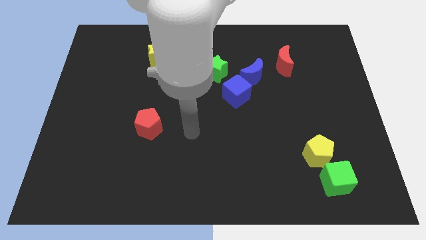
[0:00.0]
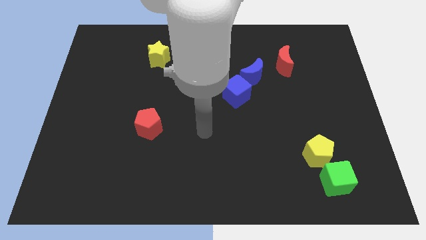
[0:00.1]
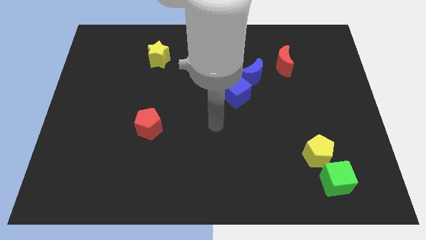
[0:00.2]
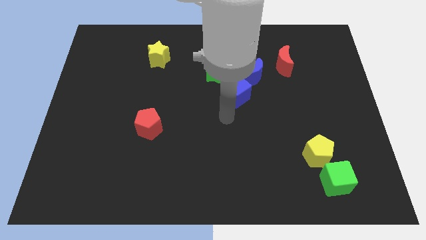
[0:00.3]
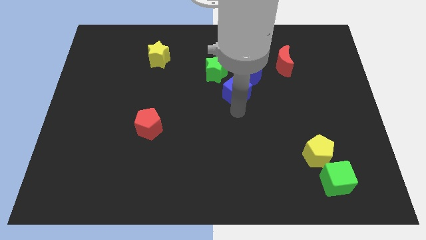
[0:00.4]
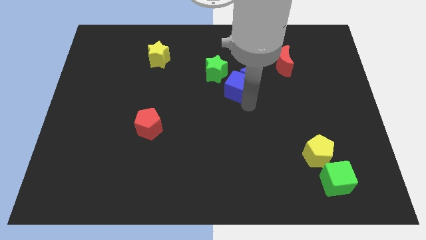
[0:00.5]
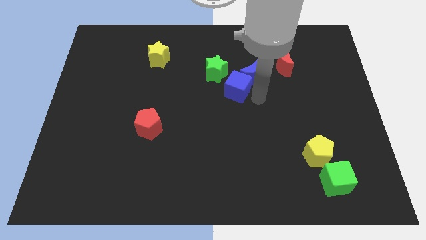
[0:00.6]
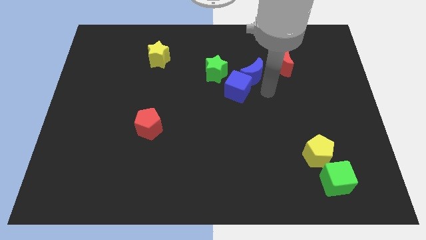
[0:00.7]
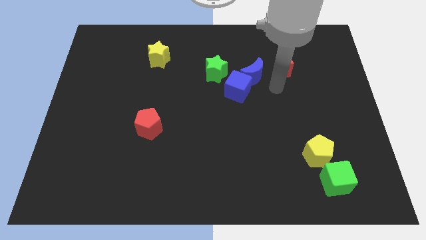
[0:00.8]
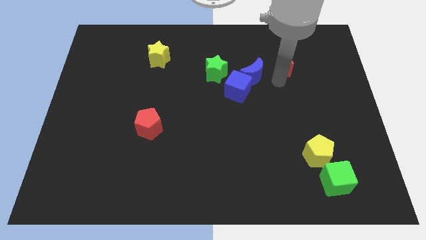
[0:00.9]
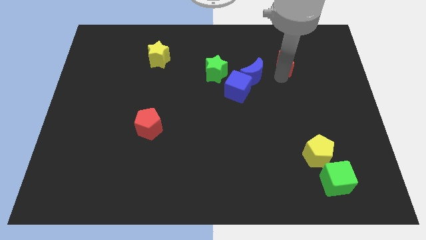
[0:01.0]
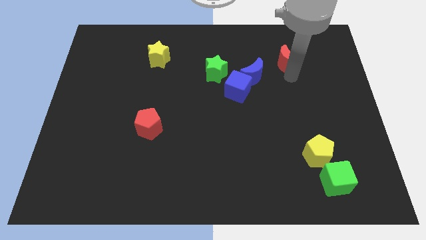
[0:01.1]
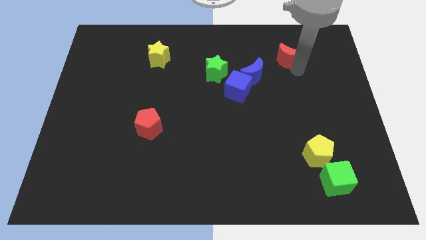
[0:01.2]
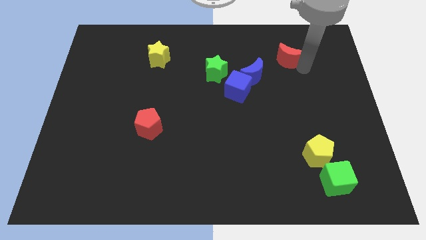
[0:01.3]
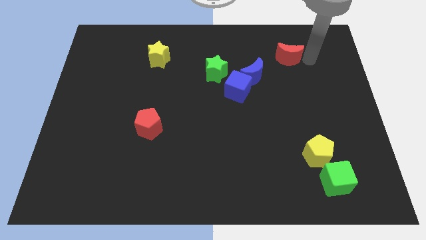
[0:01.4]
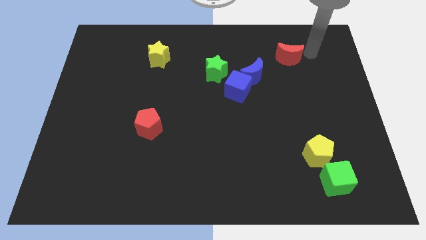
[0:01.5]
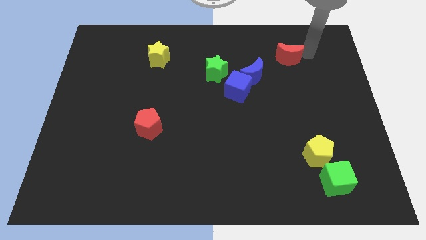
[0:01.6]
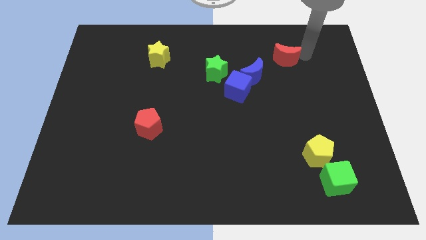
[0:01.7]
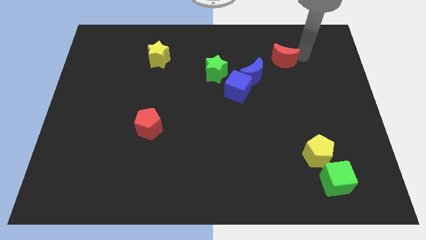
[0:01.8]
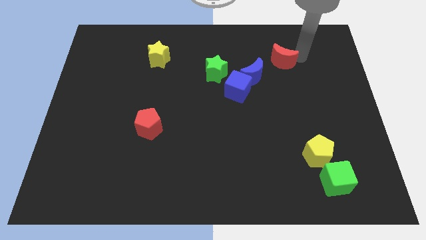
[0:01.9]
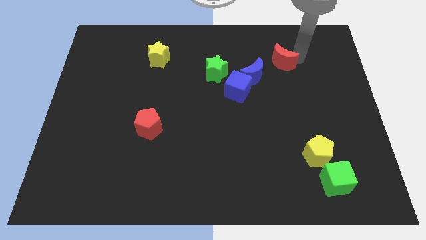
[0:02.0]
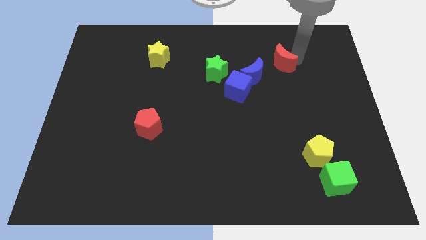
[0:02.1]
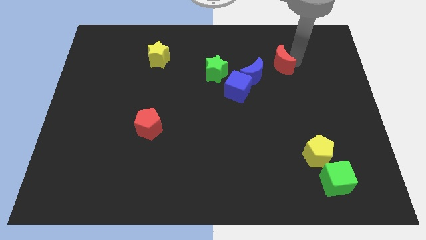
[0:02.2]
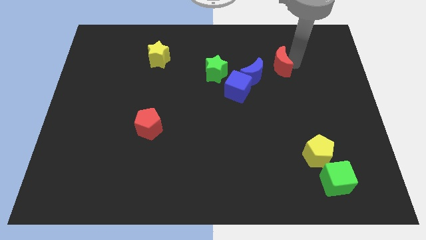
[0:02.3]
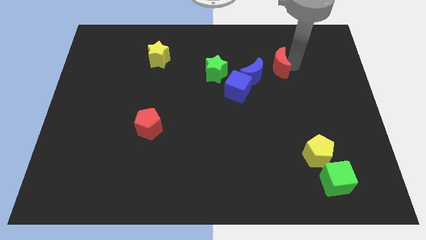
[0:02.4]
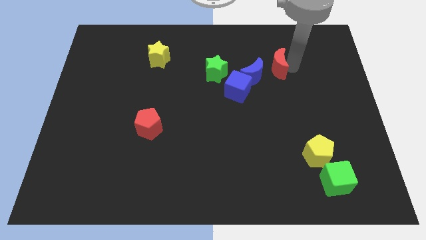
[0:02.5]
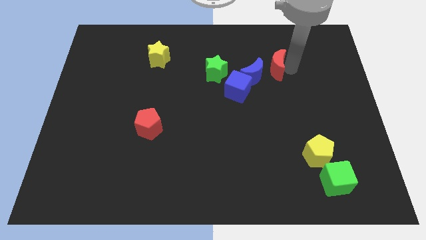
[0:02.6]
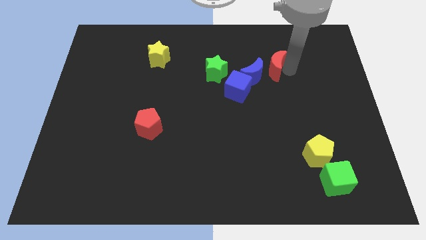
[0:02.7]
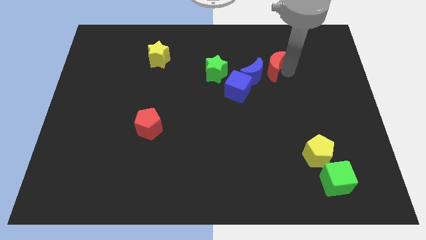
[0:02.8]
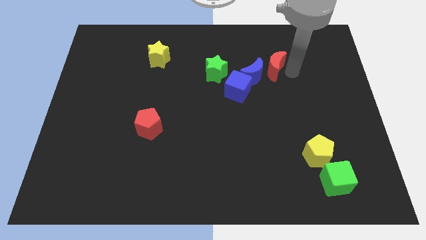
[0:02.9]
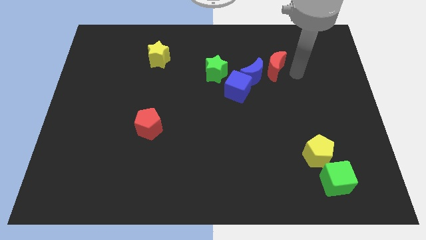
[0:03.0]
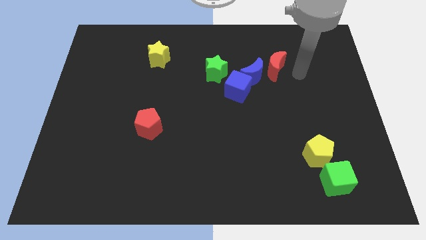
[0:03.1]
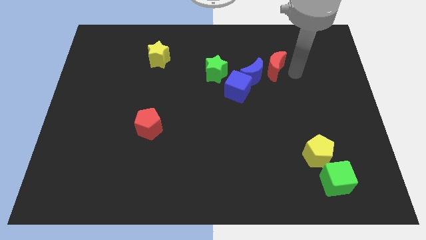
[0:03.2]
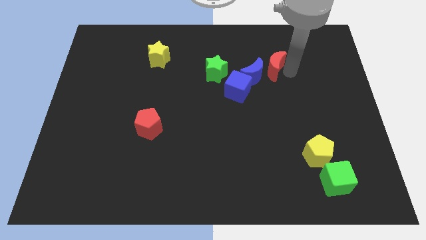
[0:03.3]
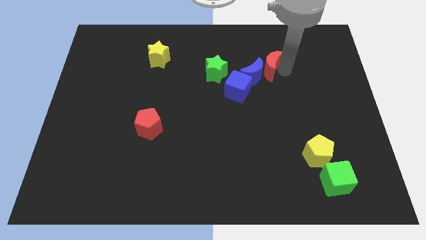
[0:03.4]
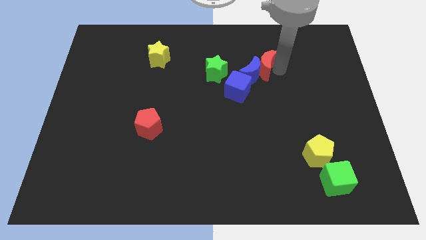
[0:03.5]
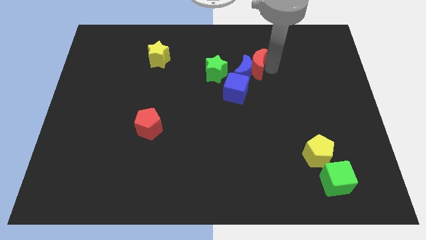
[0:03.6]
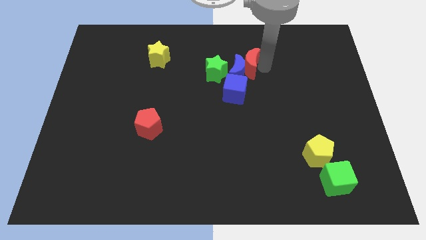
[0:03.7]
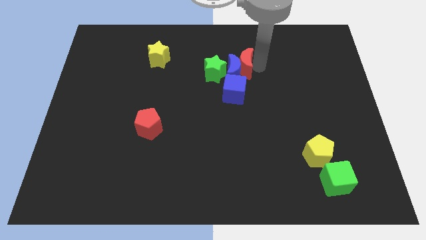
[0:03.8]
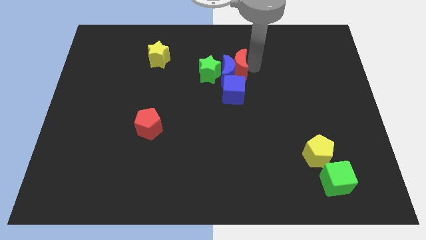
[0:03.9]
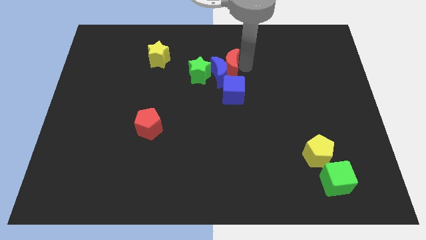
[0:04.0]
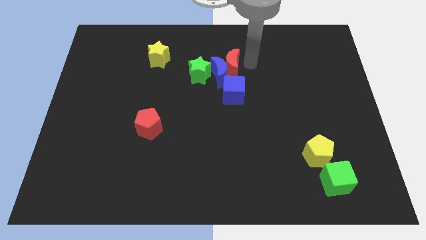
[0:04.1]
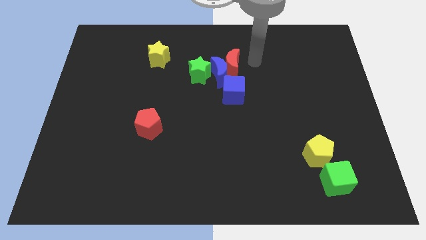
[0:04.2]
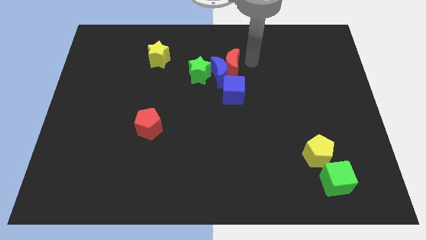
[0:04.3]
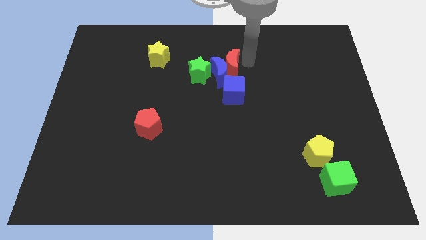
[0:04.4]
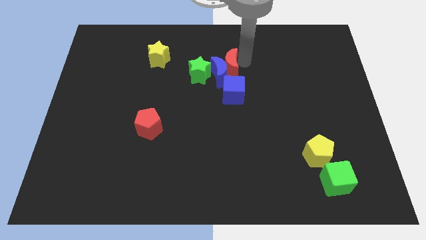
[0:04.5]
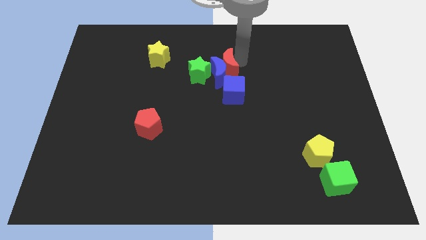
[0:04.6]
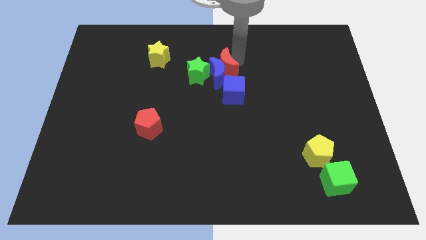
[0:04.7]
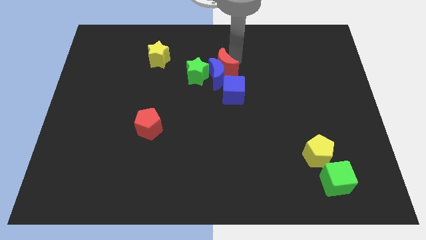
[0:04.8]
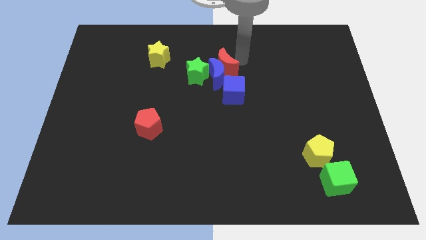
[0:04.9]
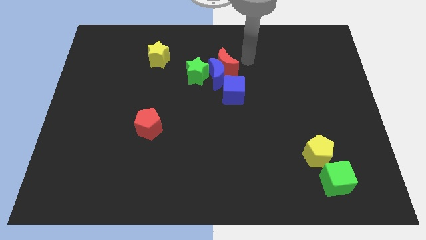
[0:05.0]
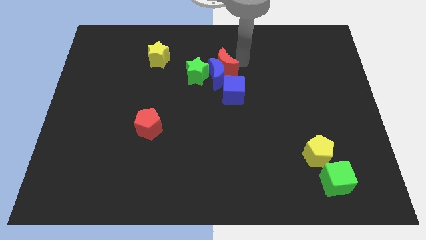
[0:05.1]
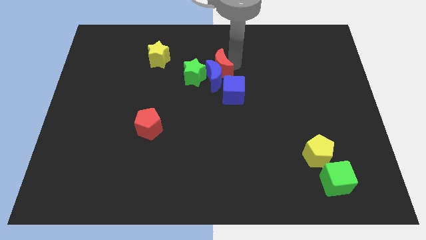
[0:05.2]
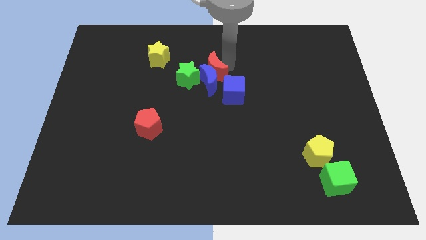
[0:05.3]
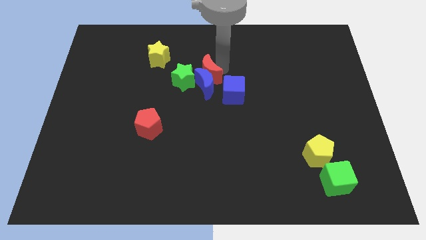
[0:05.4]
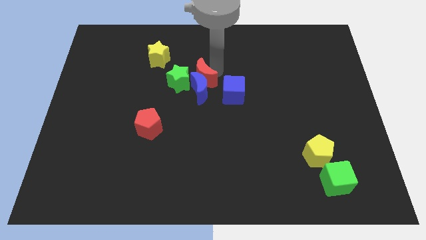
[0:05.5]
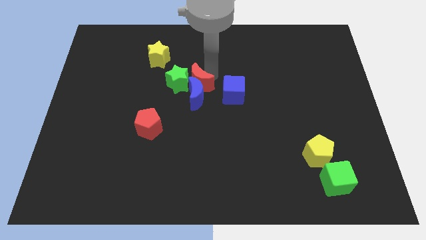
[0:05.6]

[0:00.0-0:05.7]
slide the red moon towards the green star

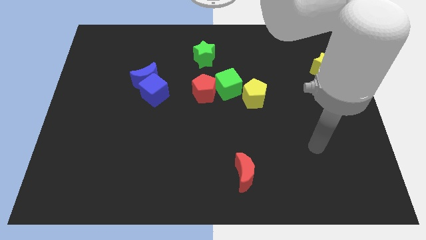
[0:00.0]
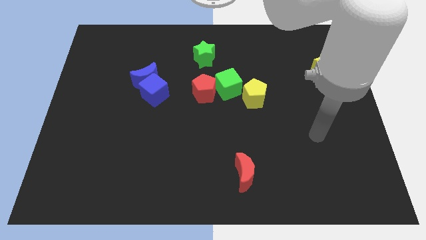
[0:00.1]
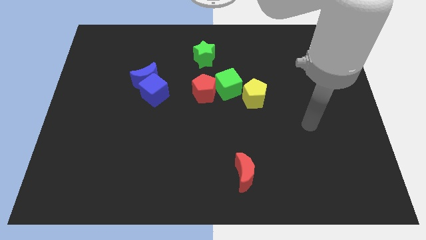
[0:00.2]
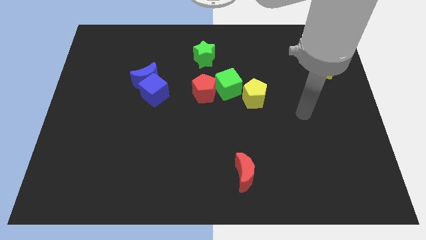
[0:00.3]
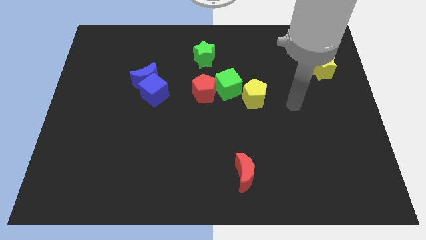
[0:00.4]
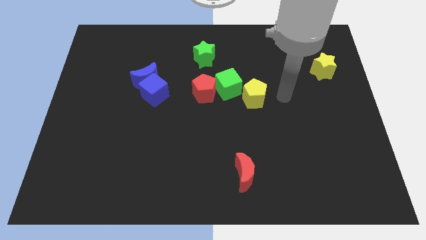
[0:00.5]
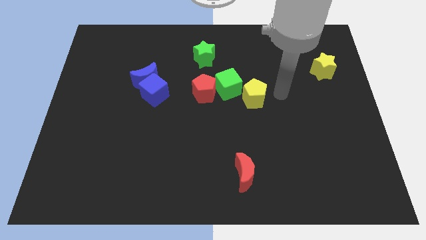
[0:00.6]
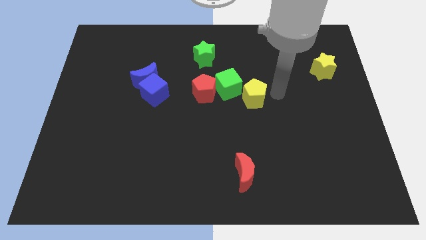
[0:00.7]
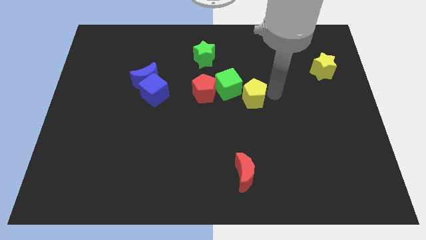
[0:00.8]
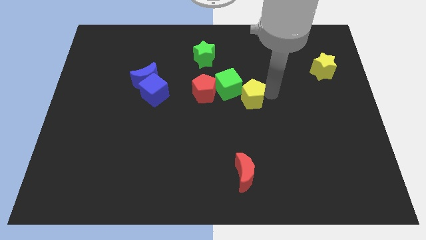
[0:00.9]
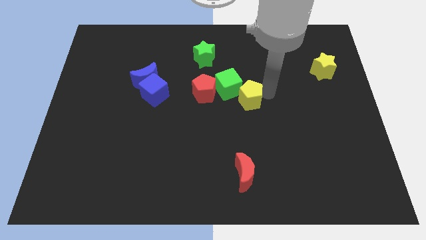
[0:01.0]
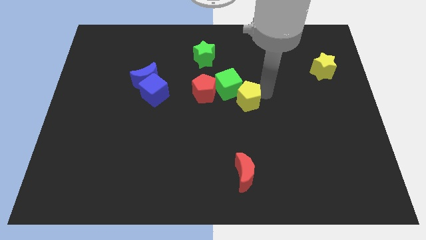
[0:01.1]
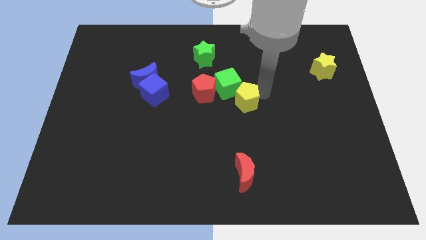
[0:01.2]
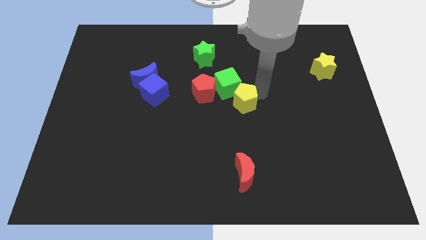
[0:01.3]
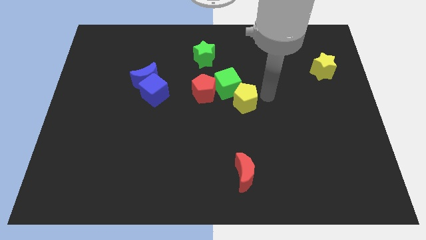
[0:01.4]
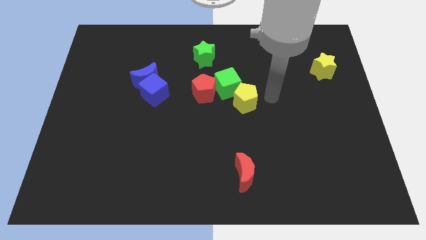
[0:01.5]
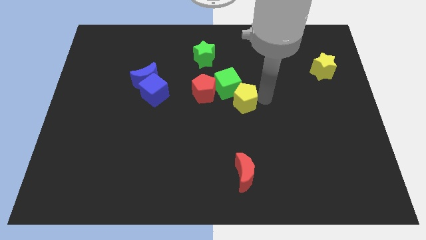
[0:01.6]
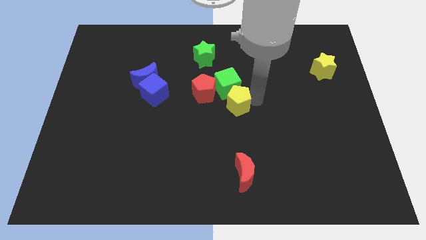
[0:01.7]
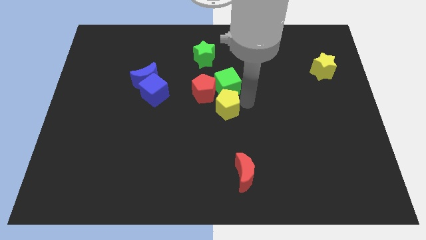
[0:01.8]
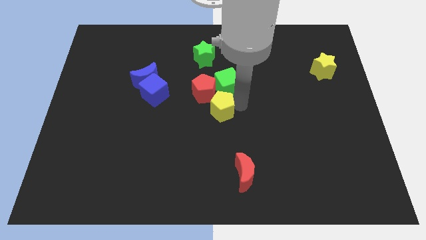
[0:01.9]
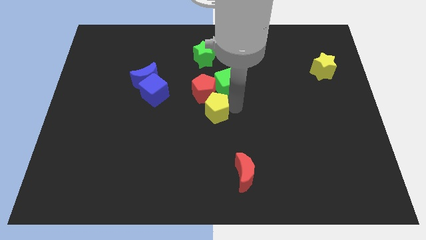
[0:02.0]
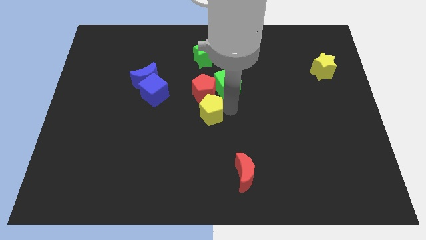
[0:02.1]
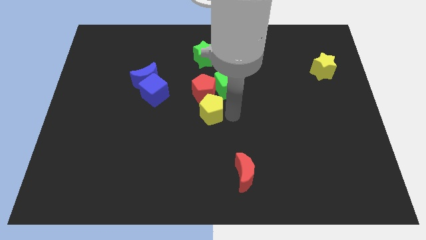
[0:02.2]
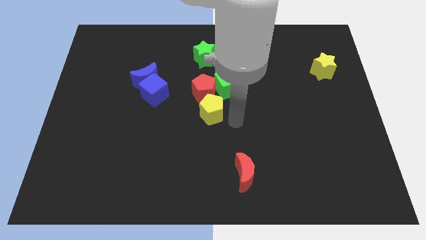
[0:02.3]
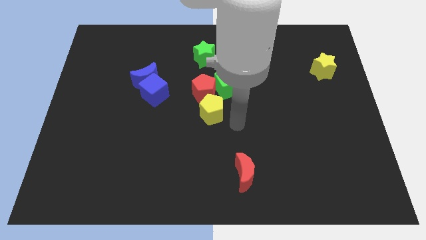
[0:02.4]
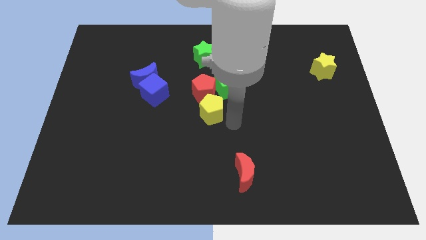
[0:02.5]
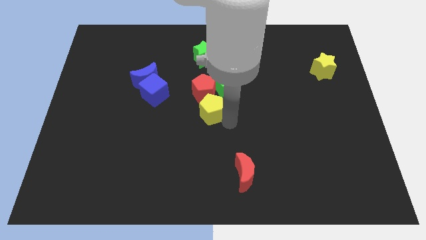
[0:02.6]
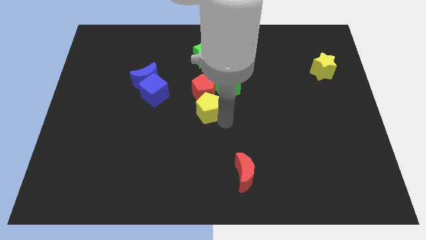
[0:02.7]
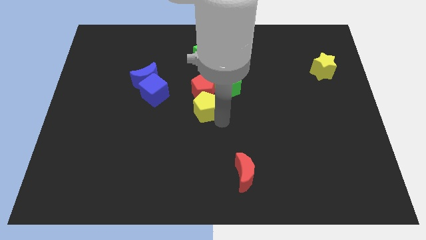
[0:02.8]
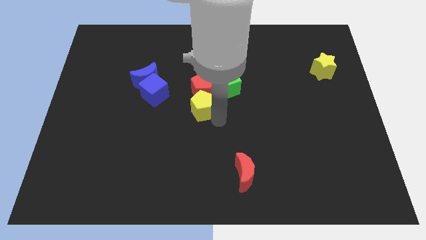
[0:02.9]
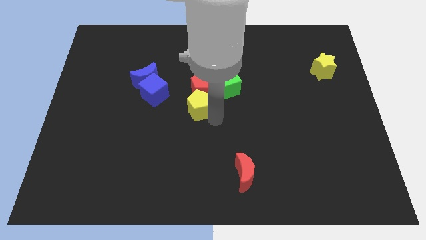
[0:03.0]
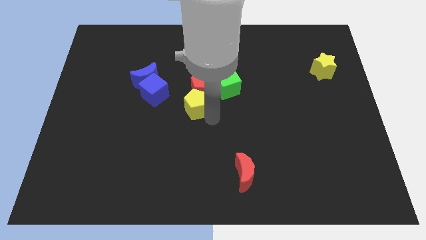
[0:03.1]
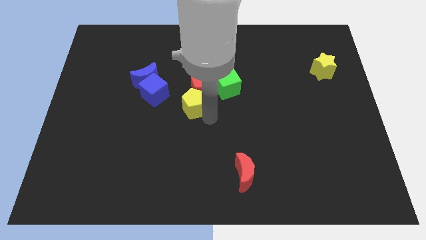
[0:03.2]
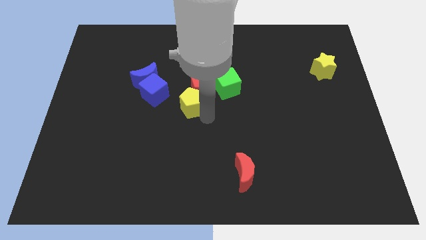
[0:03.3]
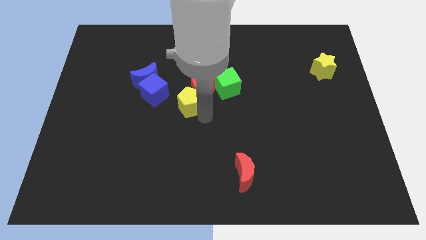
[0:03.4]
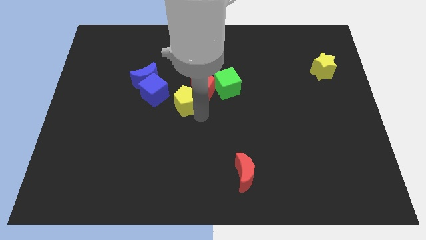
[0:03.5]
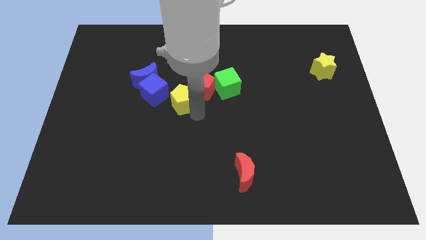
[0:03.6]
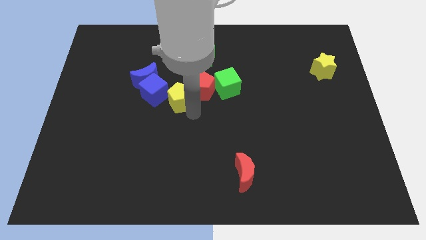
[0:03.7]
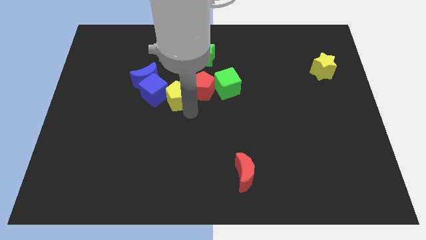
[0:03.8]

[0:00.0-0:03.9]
put the yellow pentagon to the blue cube
